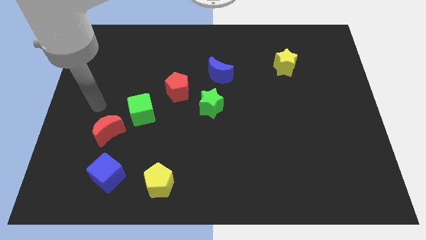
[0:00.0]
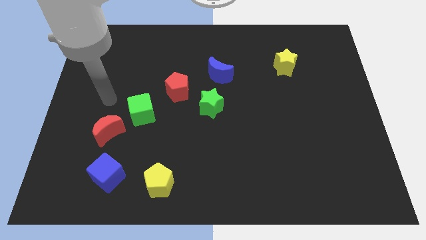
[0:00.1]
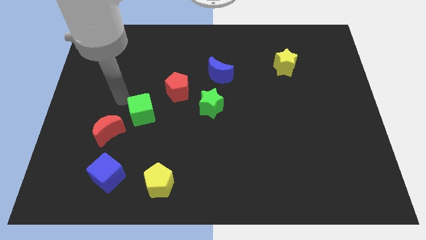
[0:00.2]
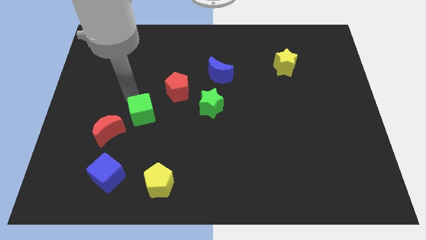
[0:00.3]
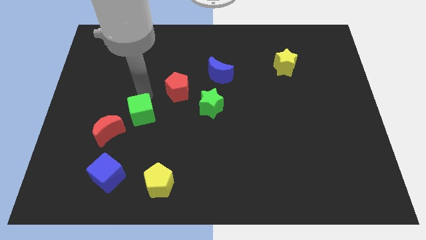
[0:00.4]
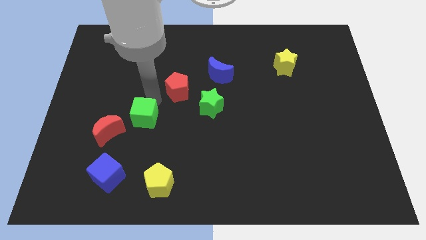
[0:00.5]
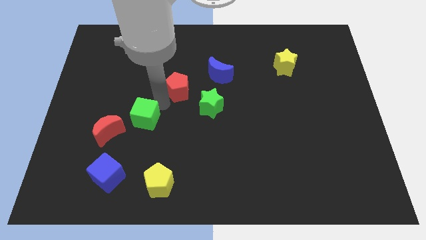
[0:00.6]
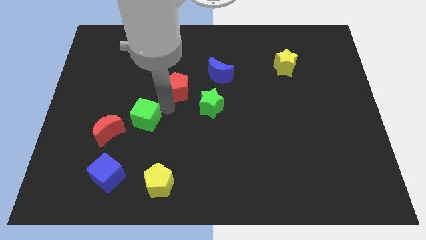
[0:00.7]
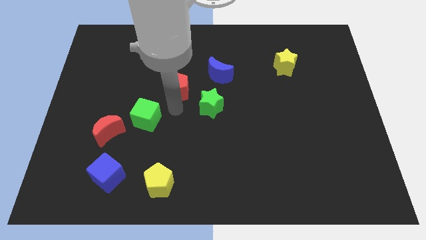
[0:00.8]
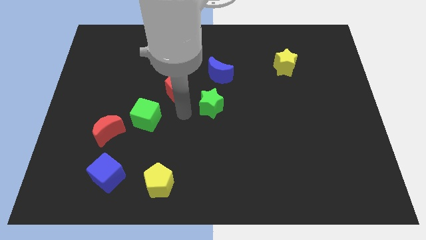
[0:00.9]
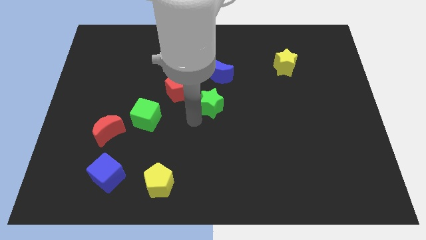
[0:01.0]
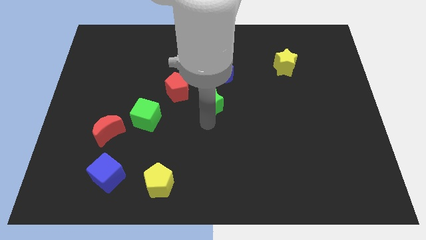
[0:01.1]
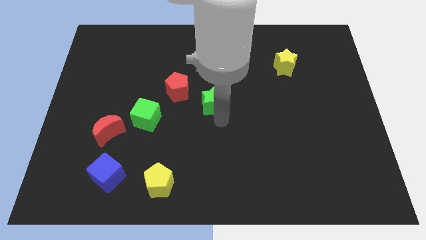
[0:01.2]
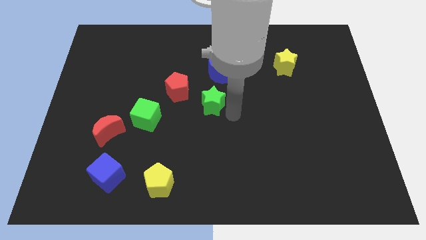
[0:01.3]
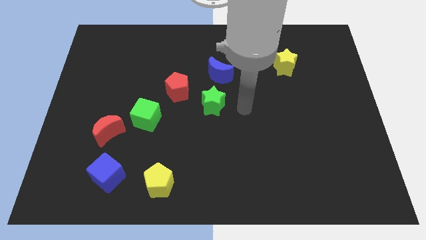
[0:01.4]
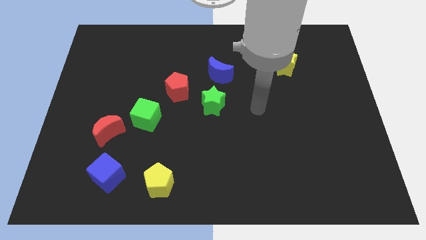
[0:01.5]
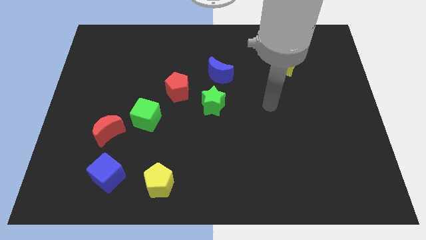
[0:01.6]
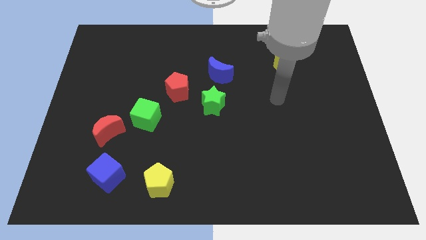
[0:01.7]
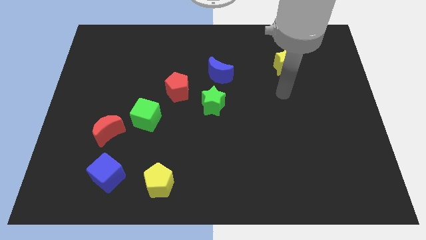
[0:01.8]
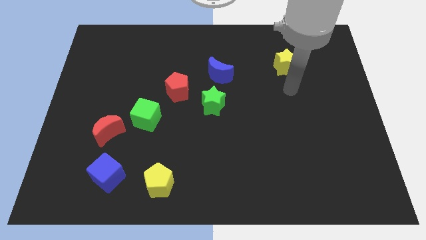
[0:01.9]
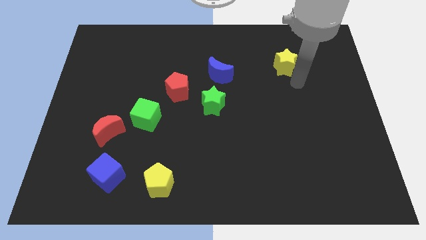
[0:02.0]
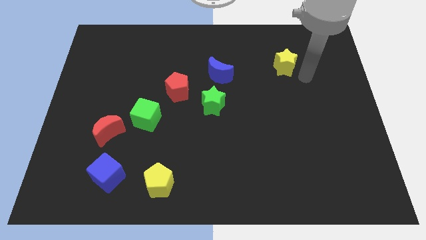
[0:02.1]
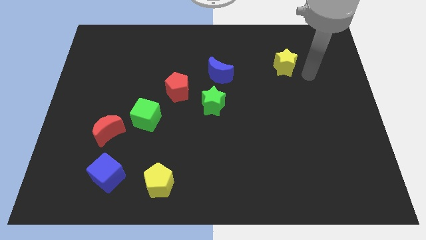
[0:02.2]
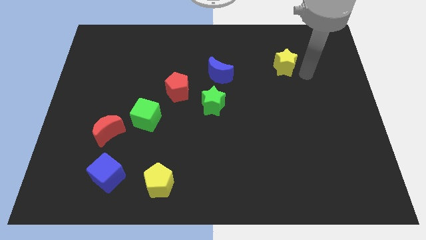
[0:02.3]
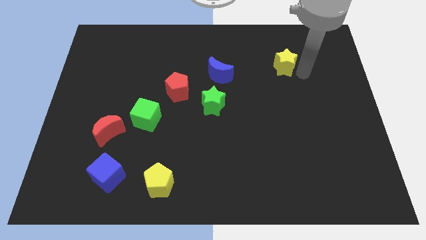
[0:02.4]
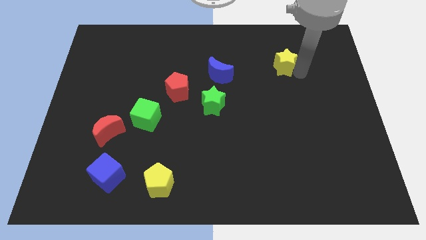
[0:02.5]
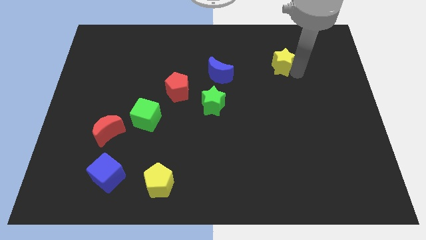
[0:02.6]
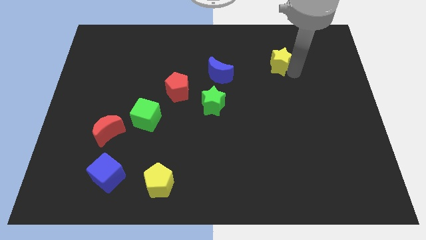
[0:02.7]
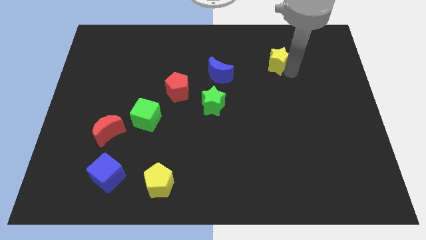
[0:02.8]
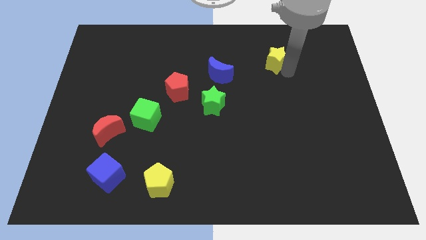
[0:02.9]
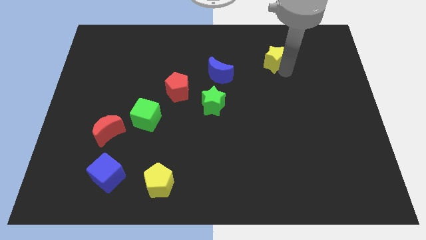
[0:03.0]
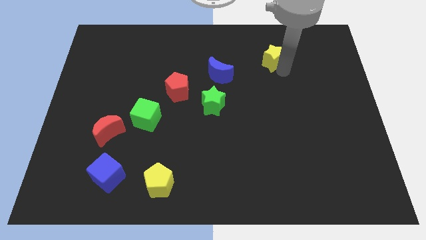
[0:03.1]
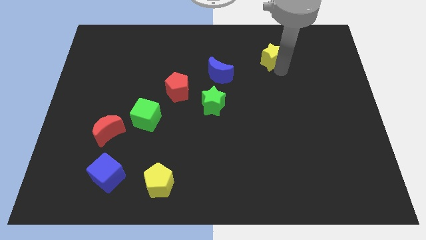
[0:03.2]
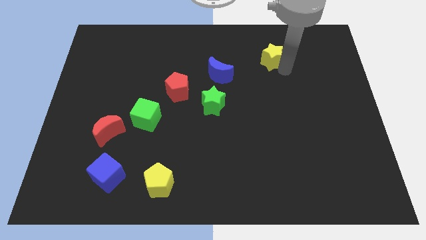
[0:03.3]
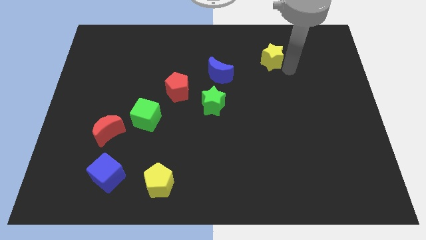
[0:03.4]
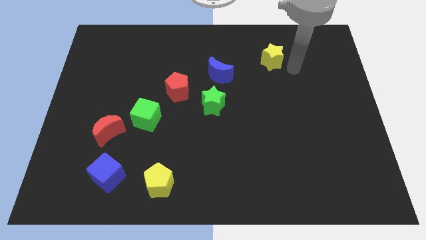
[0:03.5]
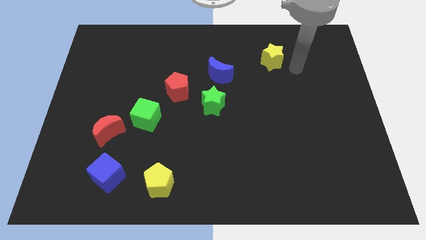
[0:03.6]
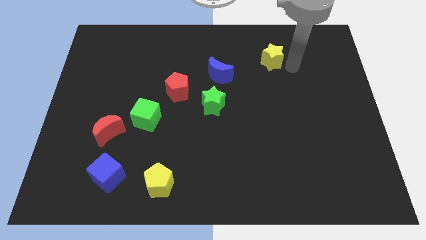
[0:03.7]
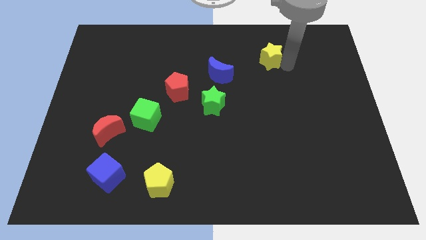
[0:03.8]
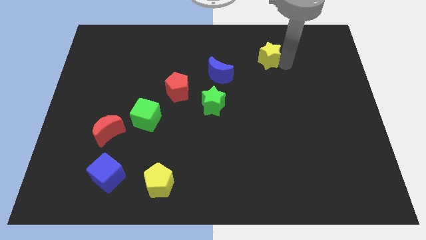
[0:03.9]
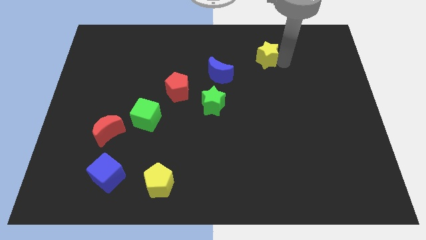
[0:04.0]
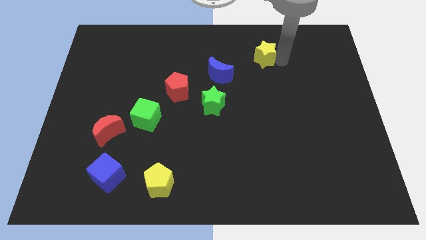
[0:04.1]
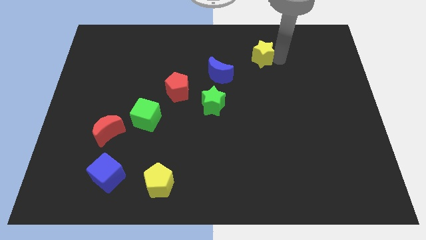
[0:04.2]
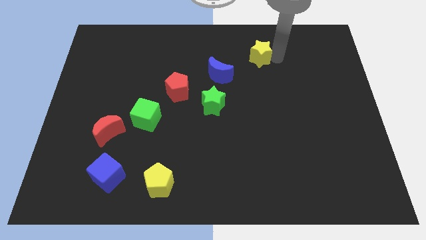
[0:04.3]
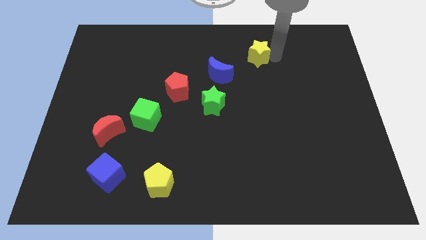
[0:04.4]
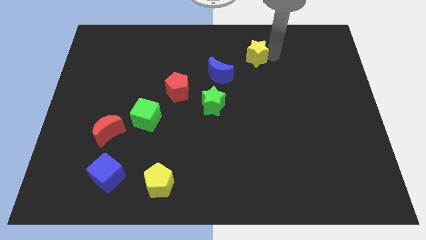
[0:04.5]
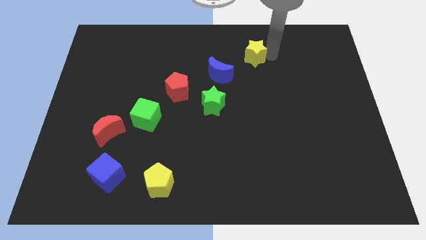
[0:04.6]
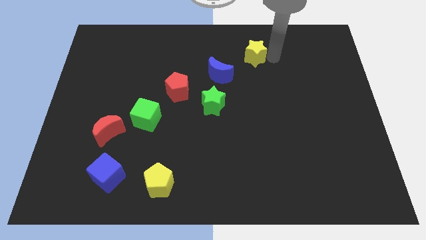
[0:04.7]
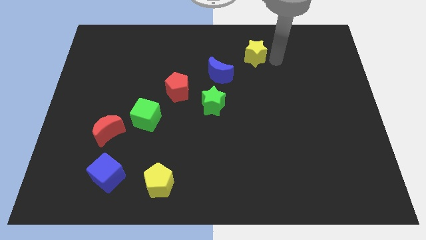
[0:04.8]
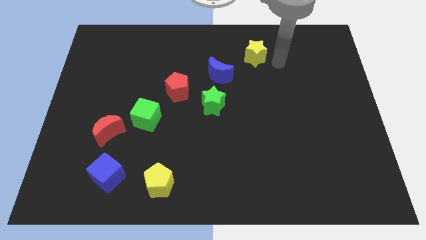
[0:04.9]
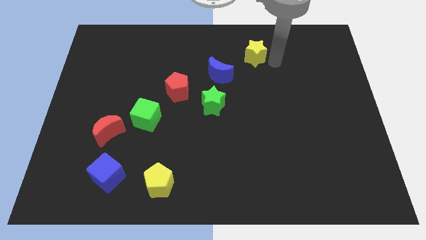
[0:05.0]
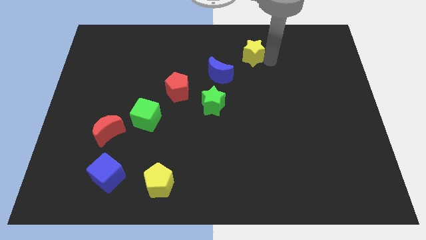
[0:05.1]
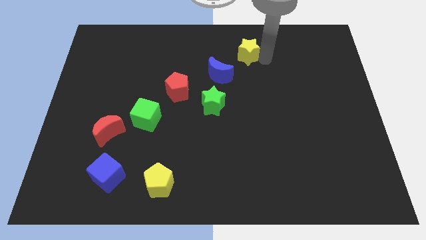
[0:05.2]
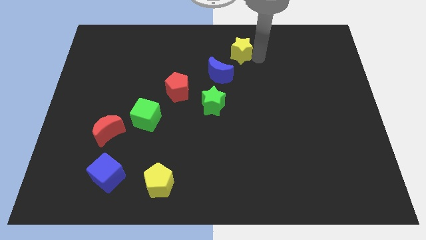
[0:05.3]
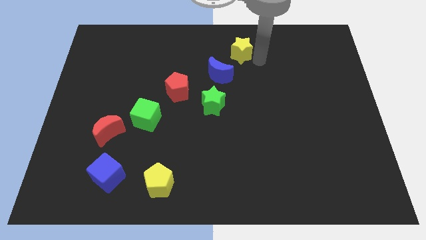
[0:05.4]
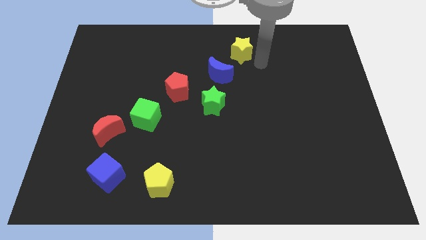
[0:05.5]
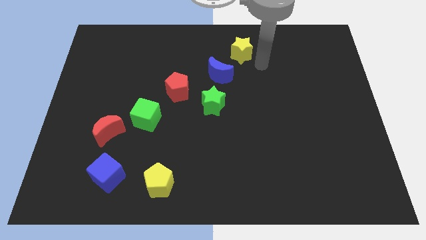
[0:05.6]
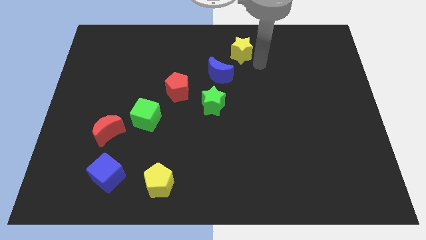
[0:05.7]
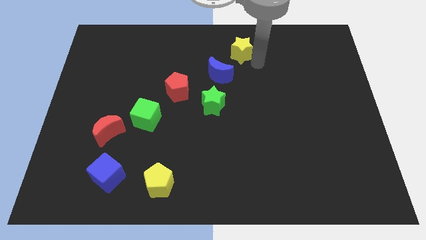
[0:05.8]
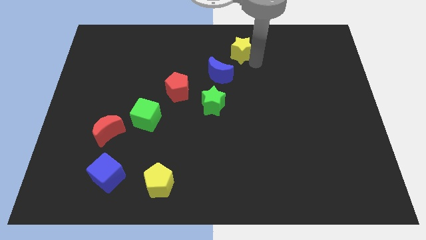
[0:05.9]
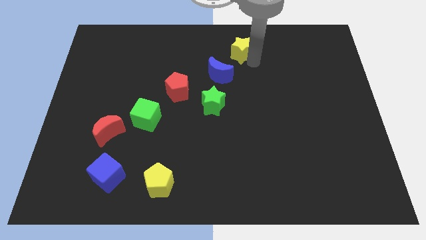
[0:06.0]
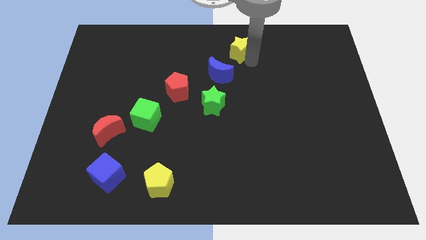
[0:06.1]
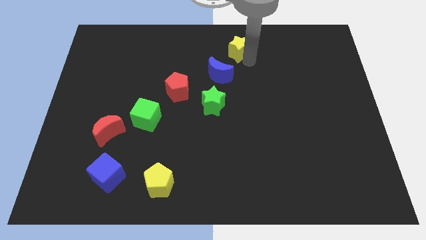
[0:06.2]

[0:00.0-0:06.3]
move the yellow star to the towards your base

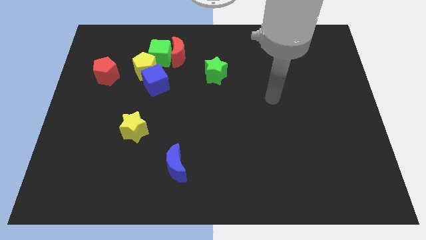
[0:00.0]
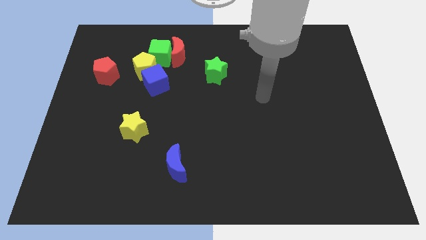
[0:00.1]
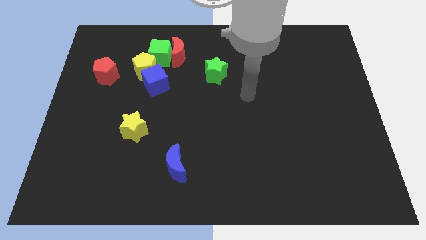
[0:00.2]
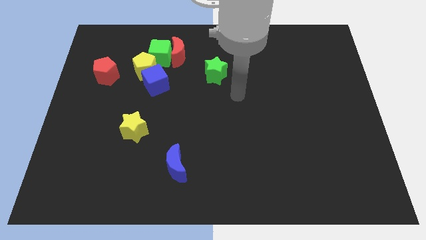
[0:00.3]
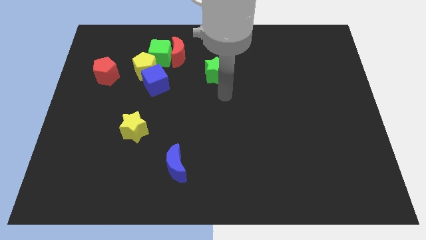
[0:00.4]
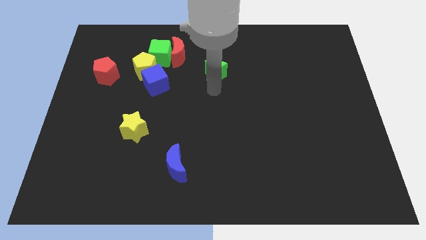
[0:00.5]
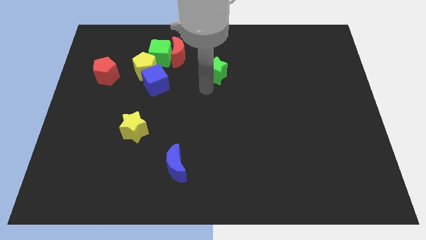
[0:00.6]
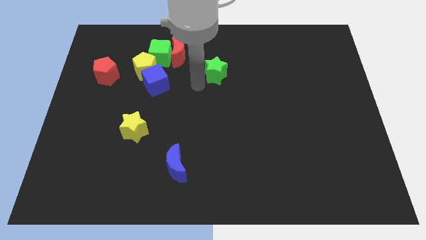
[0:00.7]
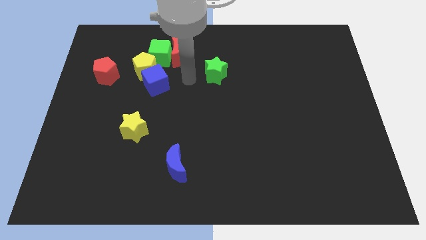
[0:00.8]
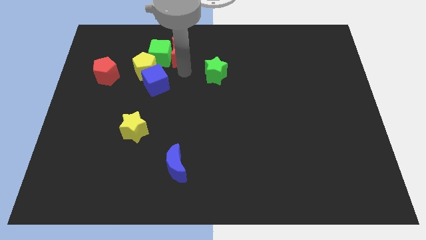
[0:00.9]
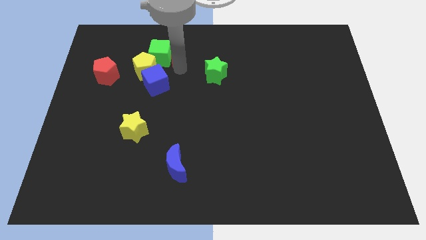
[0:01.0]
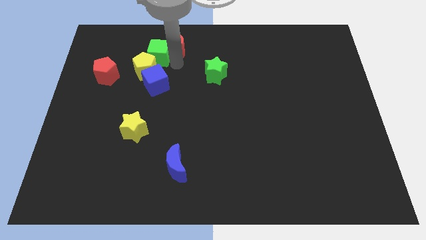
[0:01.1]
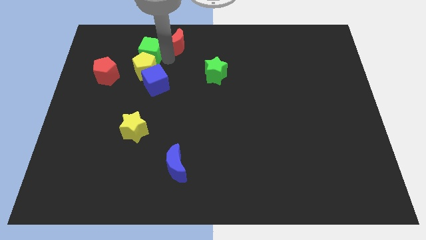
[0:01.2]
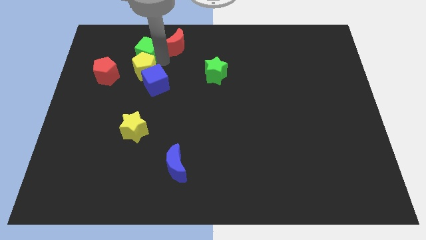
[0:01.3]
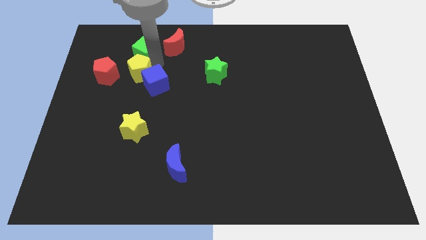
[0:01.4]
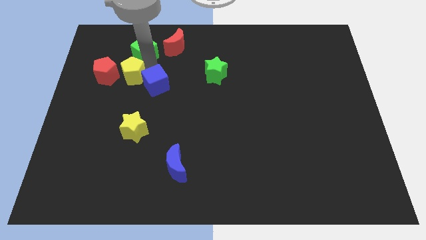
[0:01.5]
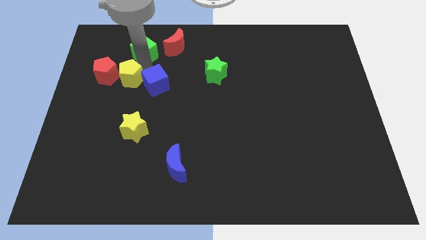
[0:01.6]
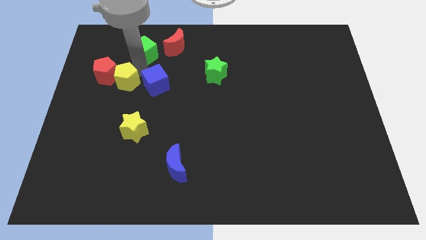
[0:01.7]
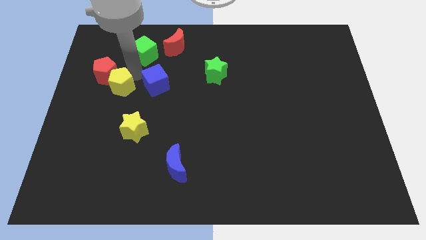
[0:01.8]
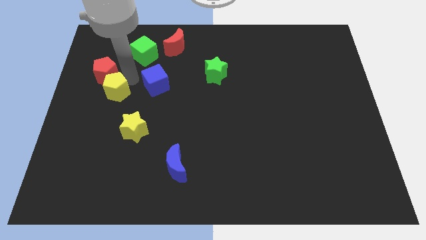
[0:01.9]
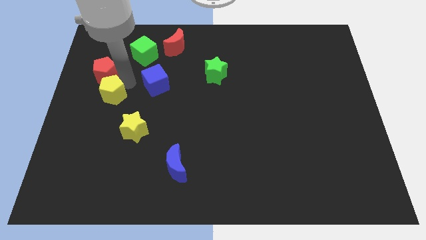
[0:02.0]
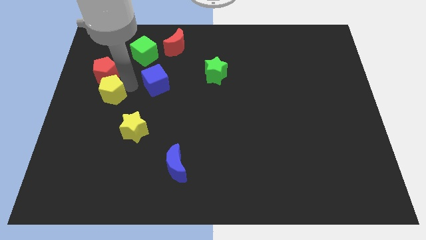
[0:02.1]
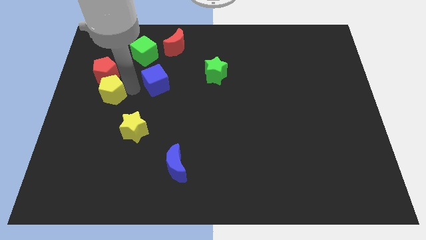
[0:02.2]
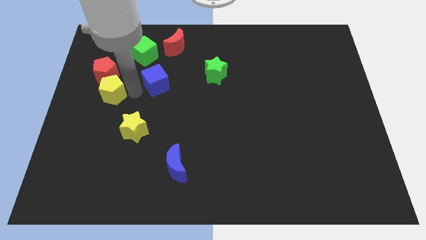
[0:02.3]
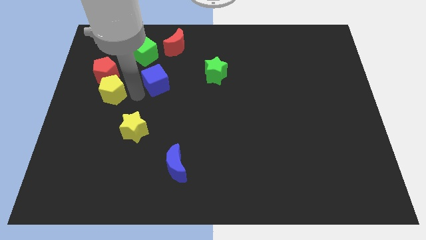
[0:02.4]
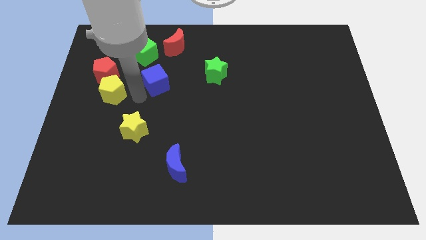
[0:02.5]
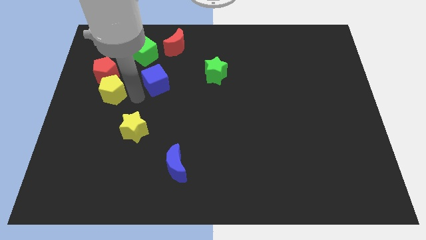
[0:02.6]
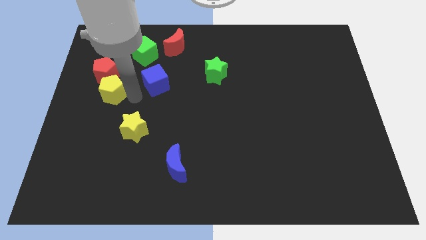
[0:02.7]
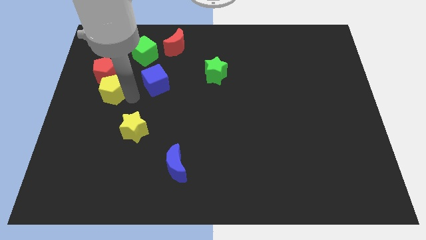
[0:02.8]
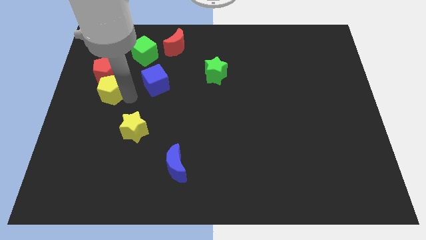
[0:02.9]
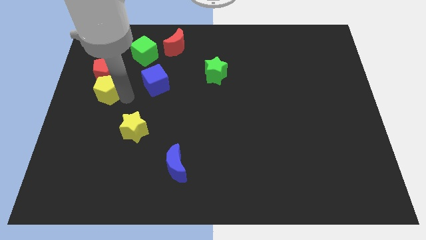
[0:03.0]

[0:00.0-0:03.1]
push the yellow pentagon to the left side of the board
